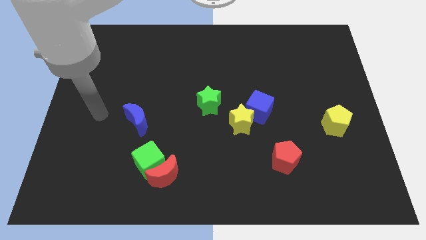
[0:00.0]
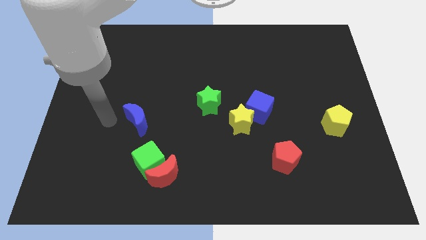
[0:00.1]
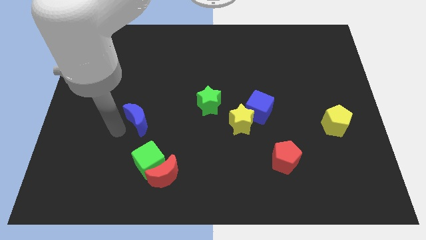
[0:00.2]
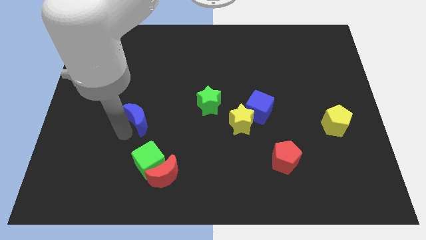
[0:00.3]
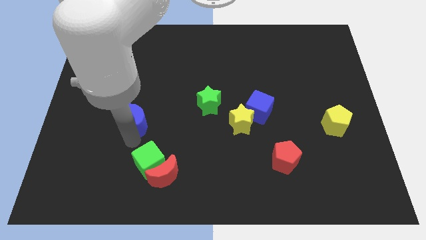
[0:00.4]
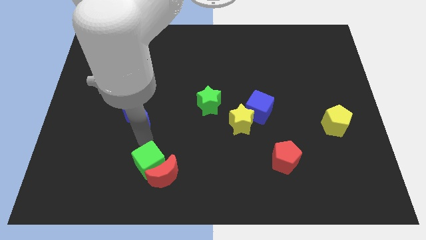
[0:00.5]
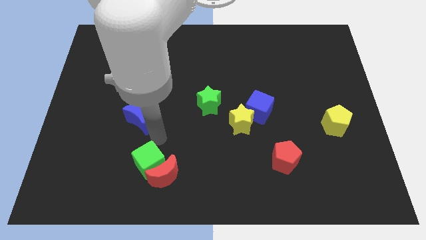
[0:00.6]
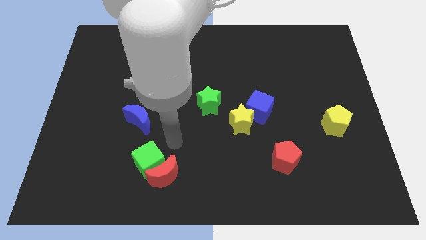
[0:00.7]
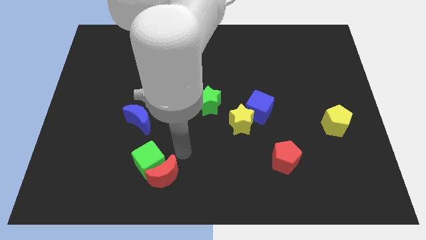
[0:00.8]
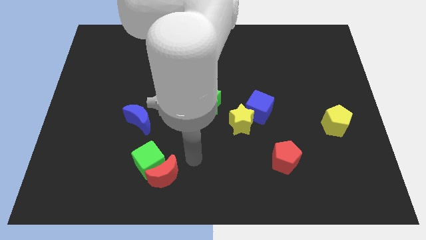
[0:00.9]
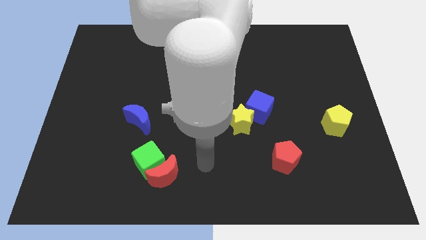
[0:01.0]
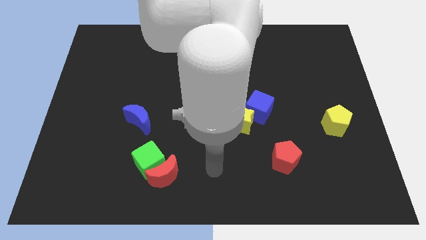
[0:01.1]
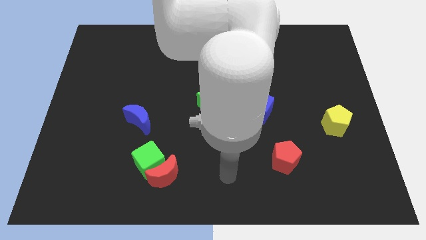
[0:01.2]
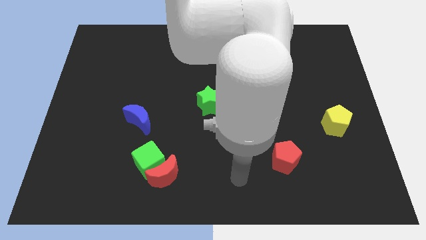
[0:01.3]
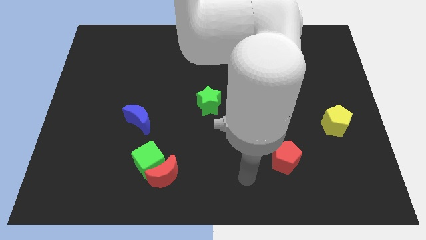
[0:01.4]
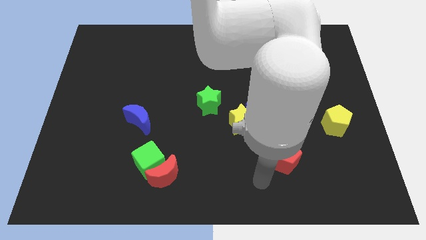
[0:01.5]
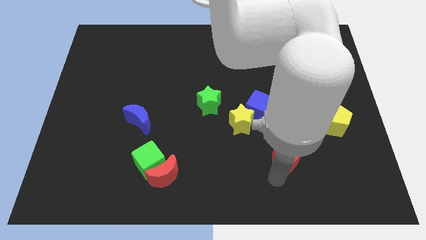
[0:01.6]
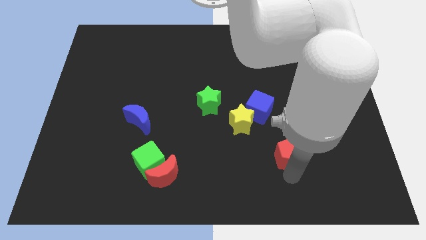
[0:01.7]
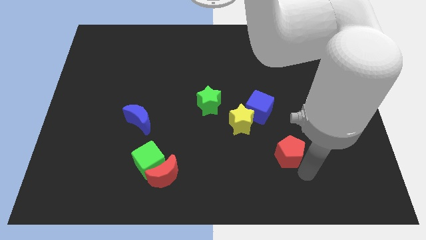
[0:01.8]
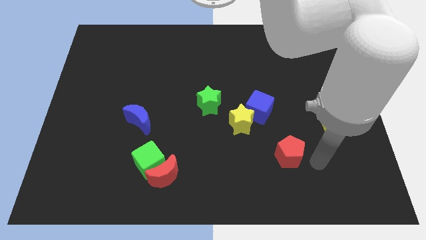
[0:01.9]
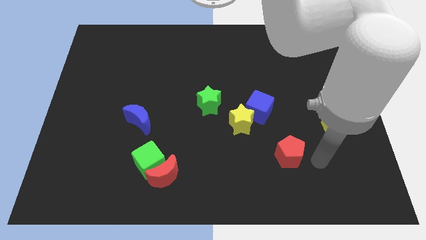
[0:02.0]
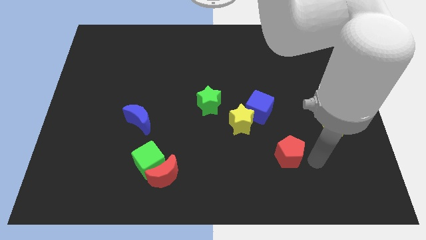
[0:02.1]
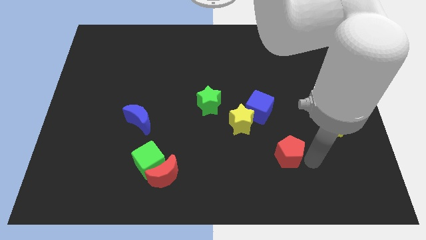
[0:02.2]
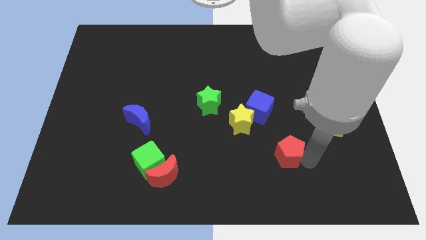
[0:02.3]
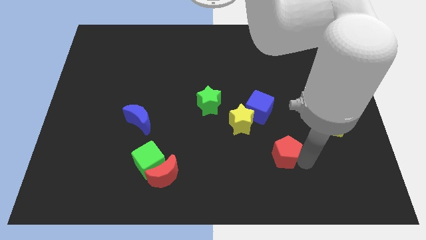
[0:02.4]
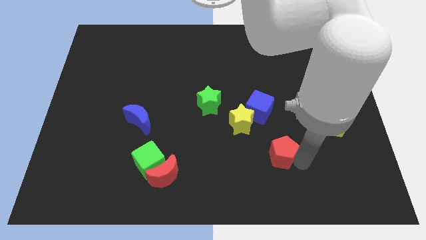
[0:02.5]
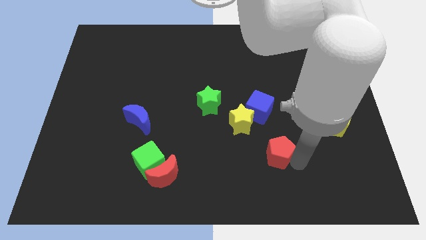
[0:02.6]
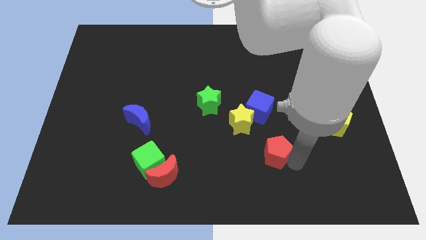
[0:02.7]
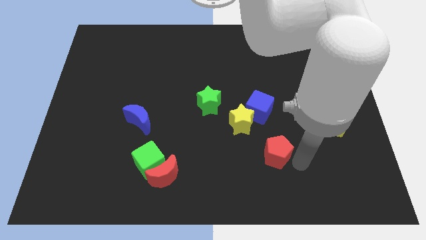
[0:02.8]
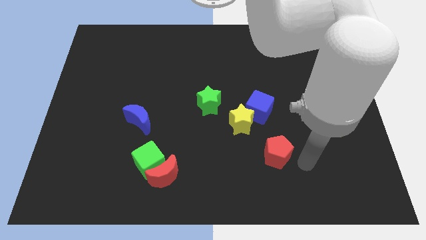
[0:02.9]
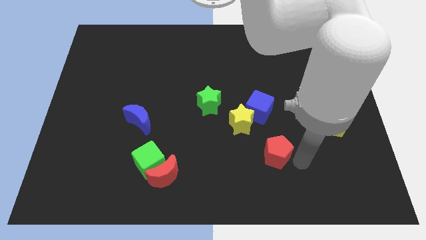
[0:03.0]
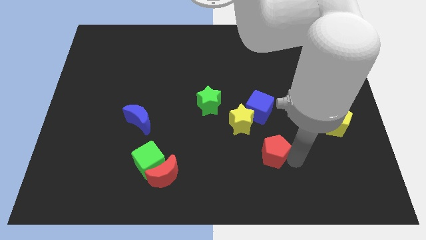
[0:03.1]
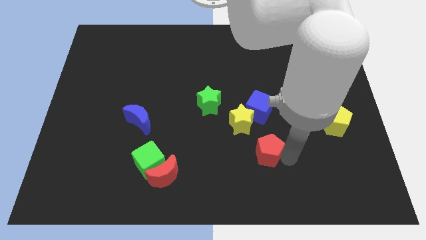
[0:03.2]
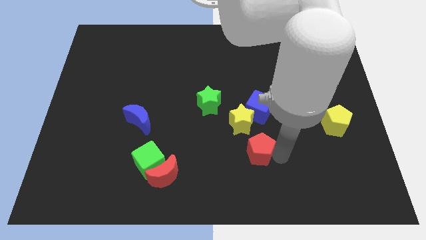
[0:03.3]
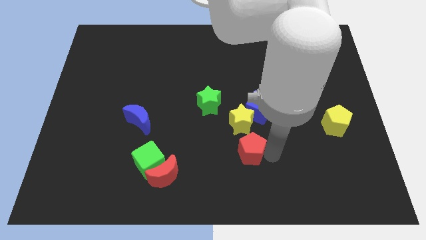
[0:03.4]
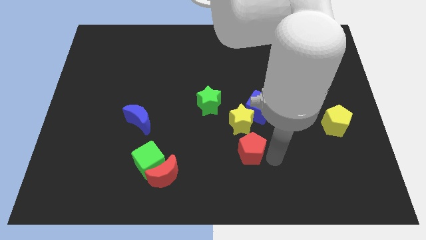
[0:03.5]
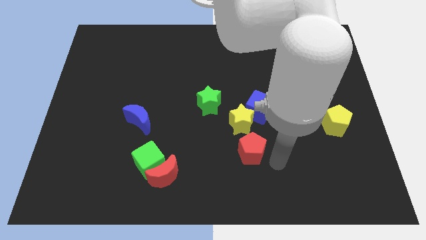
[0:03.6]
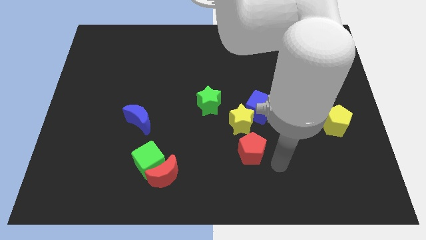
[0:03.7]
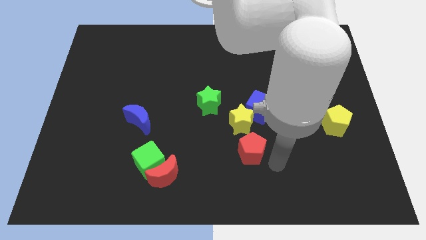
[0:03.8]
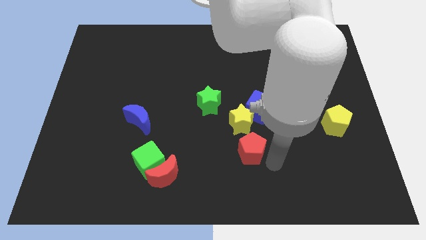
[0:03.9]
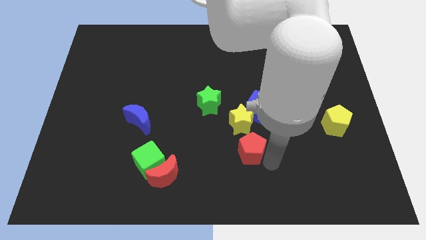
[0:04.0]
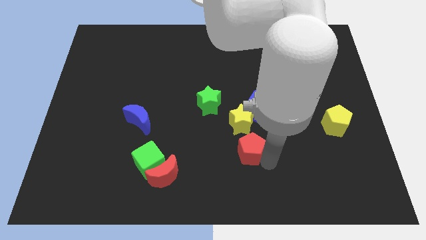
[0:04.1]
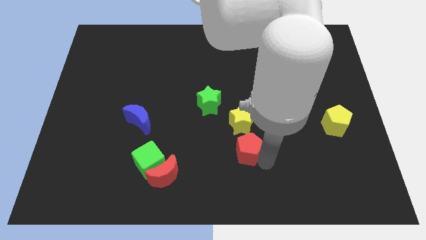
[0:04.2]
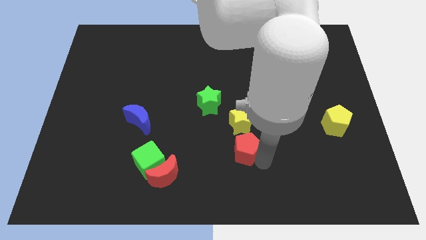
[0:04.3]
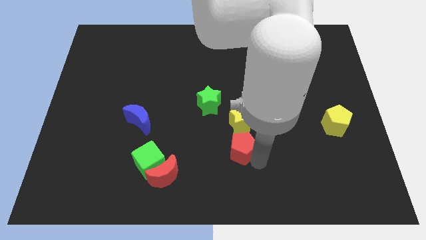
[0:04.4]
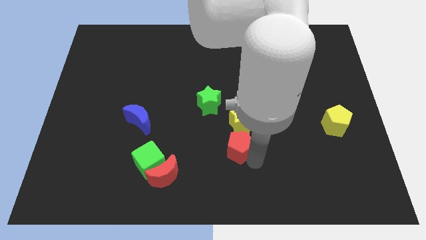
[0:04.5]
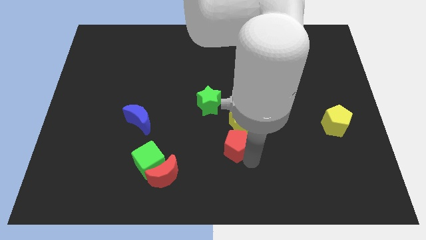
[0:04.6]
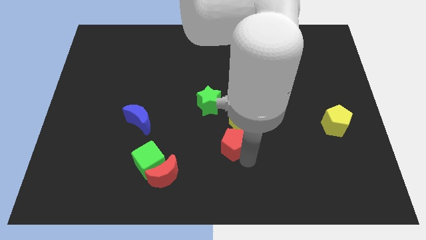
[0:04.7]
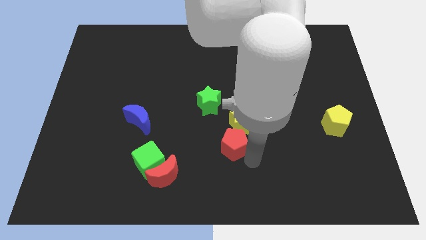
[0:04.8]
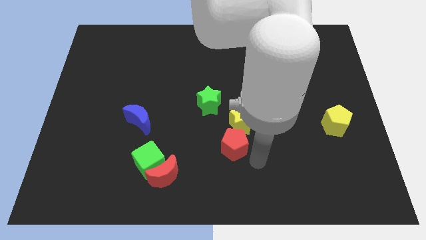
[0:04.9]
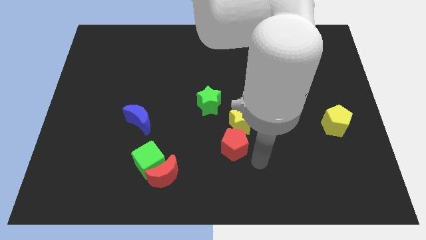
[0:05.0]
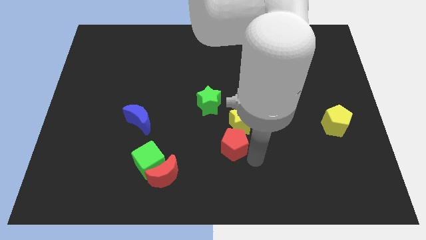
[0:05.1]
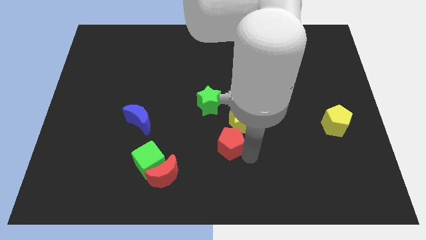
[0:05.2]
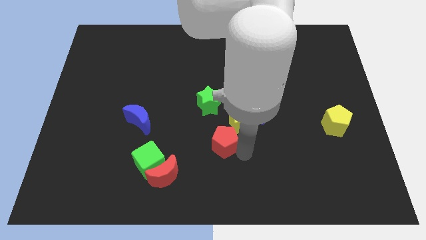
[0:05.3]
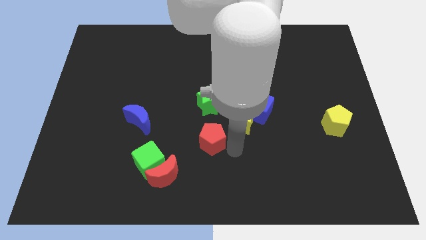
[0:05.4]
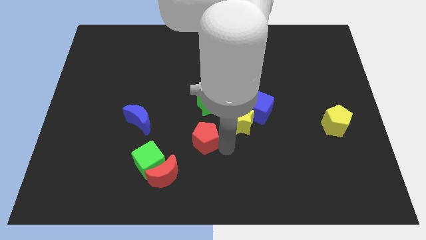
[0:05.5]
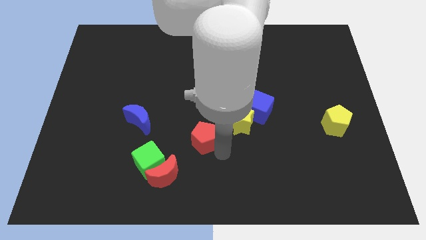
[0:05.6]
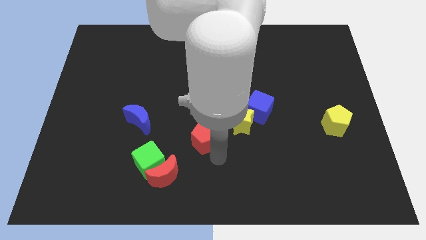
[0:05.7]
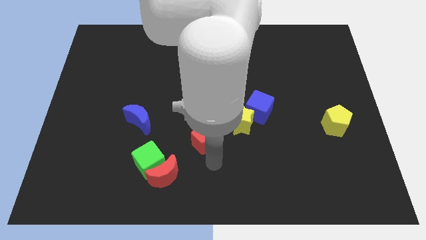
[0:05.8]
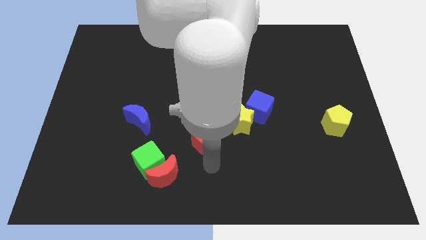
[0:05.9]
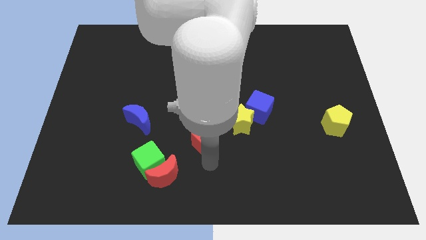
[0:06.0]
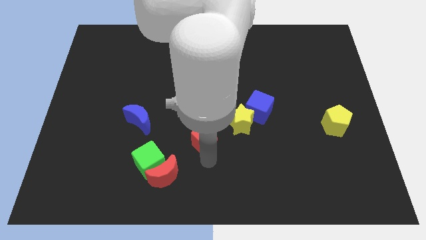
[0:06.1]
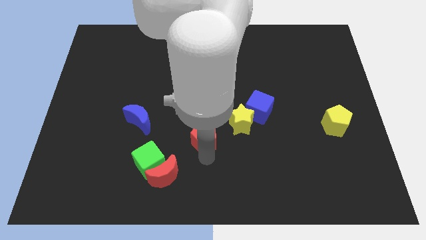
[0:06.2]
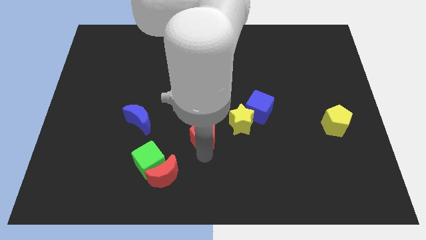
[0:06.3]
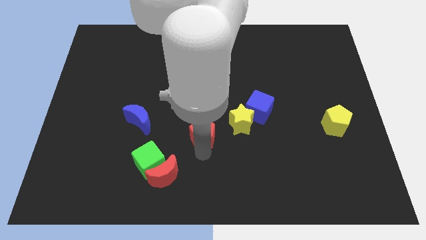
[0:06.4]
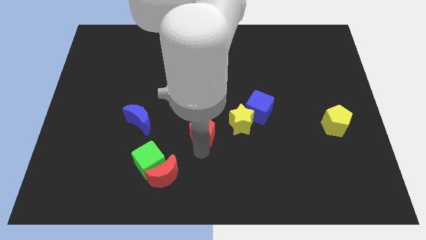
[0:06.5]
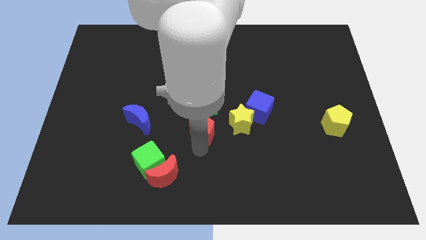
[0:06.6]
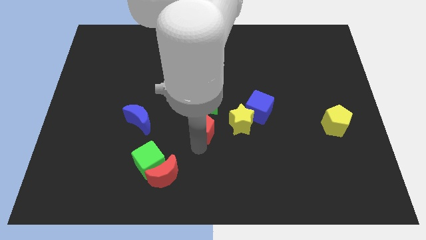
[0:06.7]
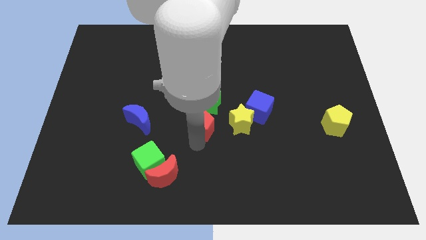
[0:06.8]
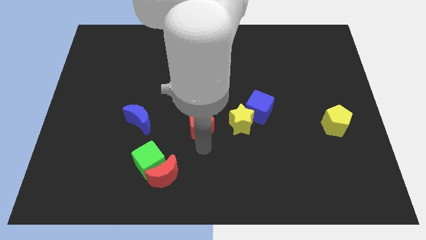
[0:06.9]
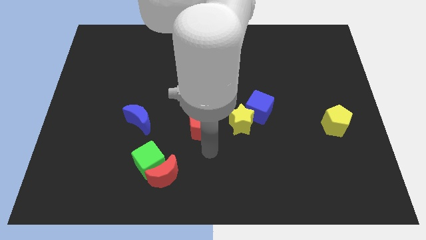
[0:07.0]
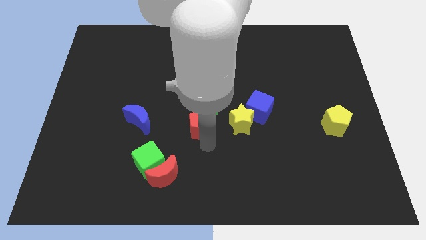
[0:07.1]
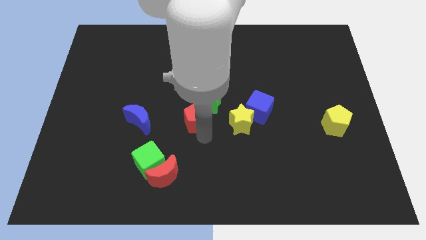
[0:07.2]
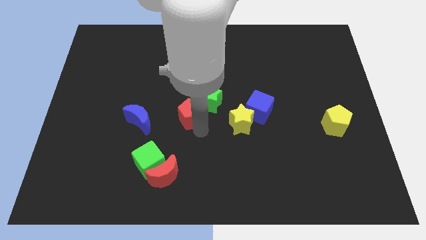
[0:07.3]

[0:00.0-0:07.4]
push the red pentagon diagonally up and to the left

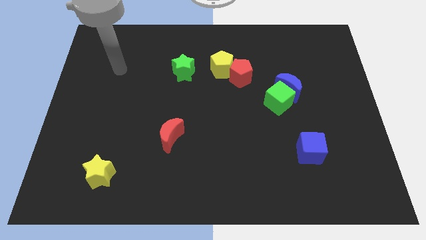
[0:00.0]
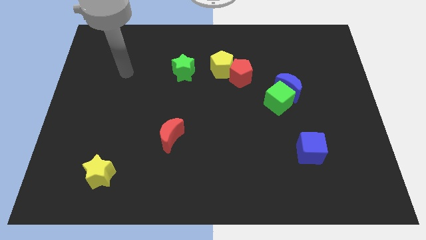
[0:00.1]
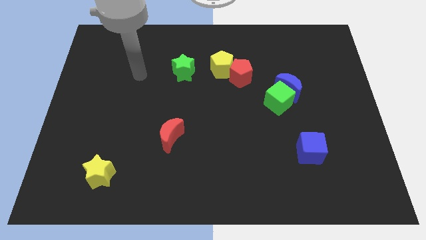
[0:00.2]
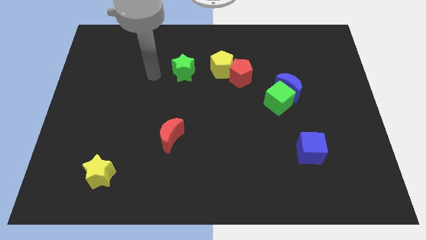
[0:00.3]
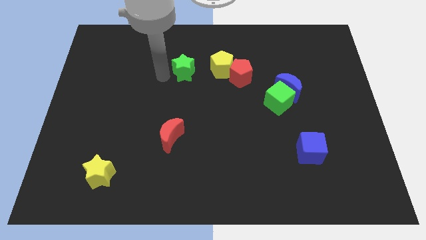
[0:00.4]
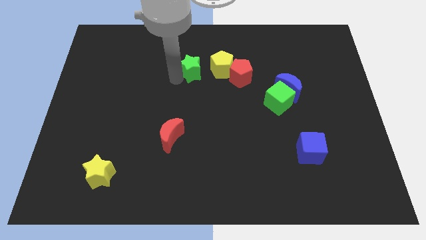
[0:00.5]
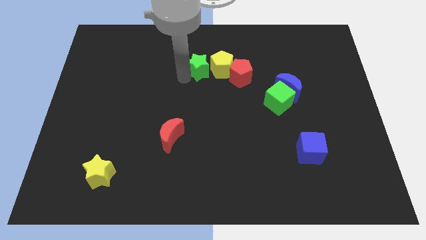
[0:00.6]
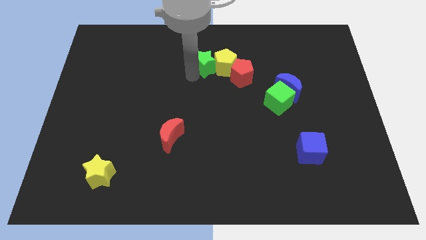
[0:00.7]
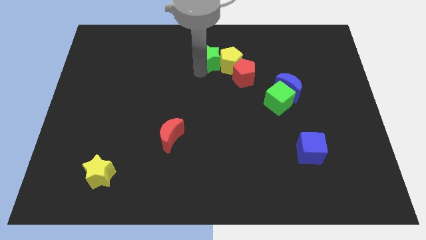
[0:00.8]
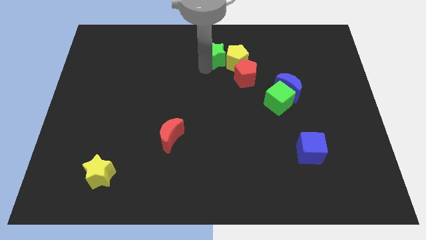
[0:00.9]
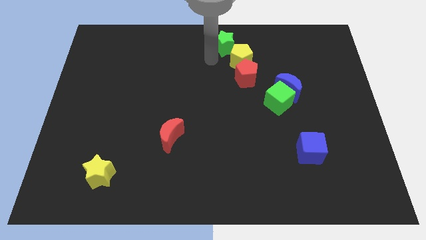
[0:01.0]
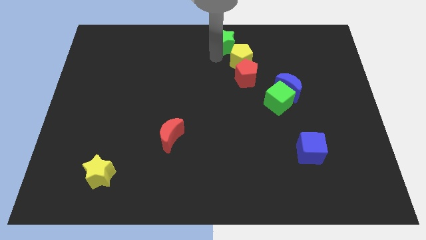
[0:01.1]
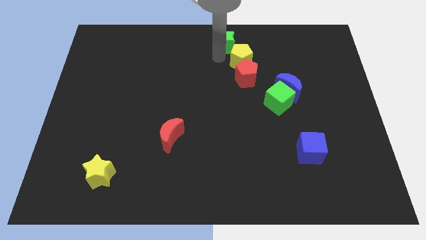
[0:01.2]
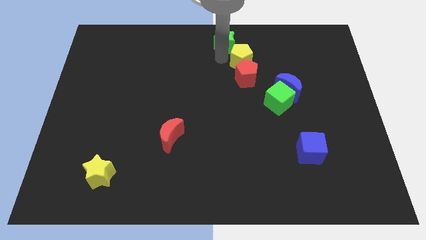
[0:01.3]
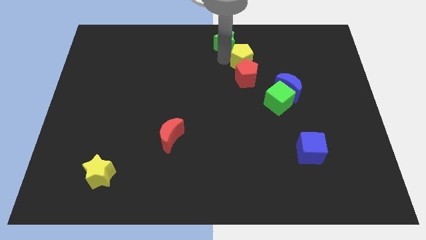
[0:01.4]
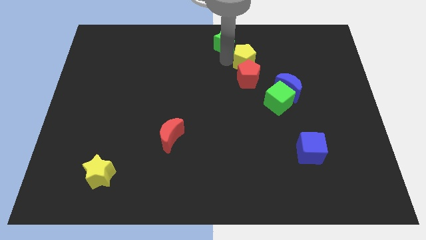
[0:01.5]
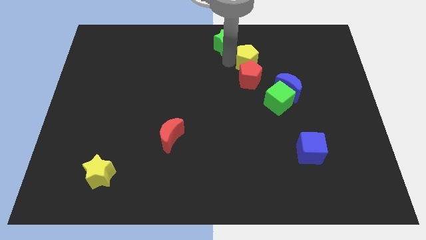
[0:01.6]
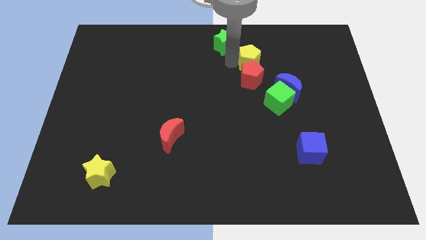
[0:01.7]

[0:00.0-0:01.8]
slightly push the yellow pentagon to the right
